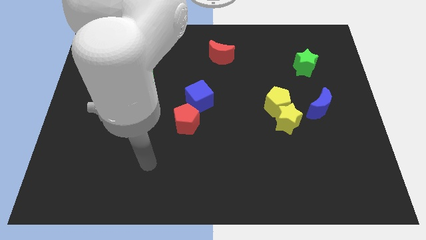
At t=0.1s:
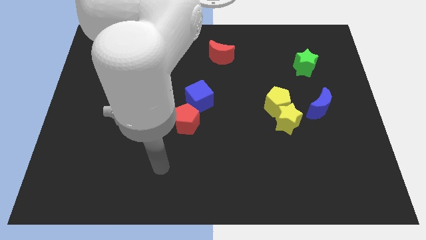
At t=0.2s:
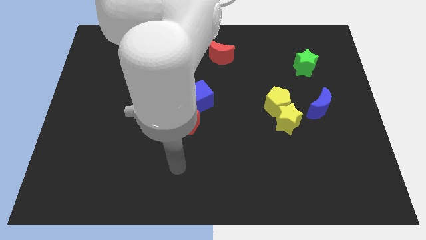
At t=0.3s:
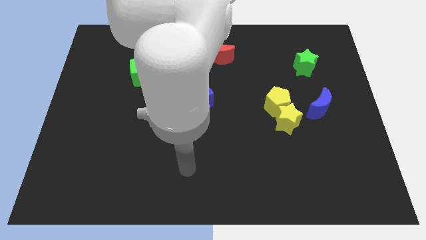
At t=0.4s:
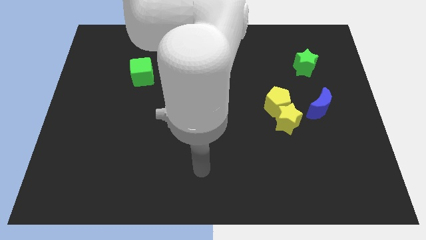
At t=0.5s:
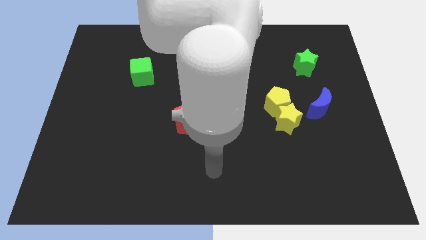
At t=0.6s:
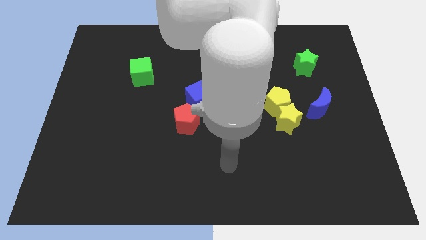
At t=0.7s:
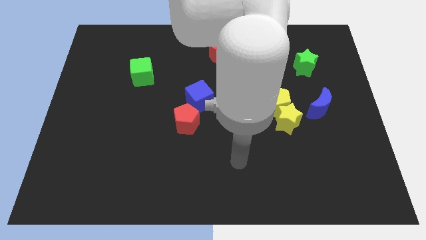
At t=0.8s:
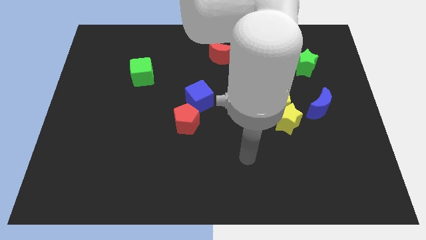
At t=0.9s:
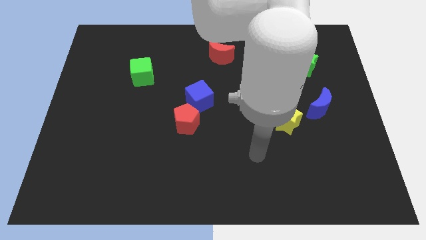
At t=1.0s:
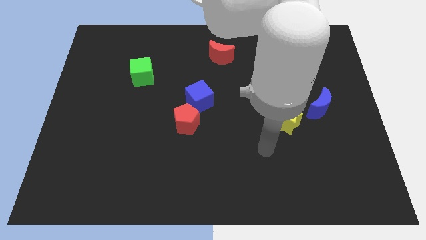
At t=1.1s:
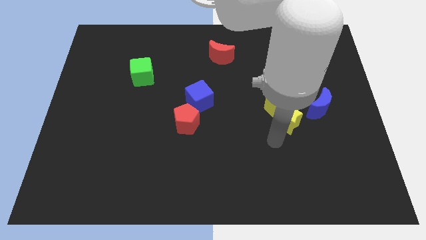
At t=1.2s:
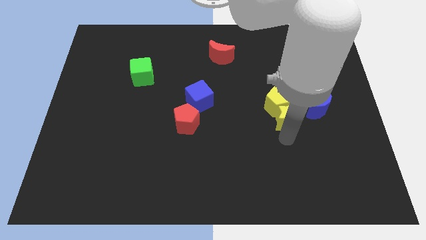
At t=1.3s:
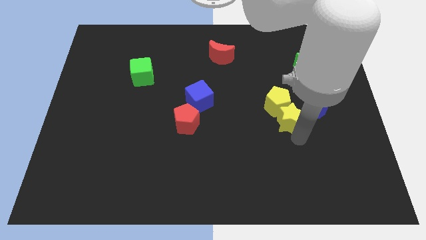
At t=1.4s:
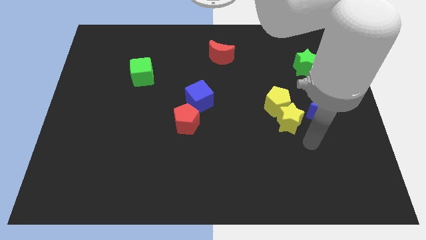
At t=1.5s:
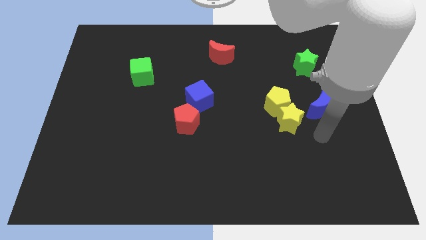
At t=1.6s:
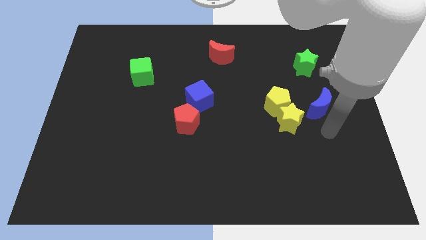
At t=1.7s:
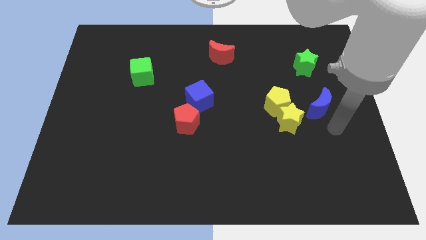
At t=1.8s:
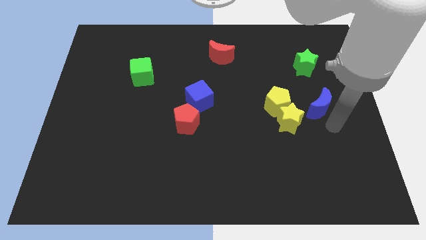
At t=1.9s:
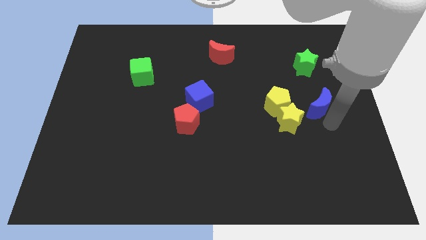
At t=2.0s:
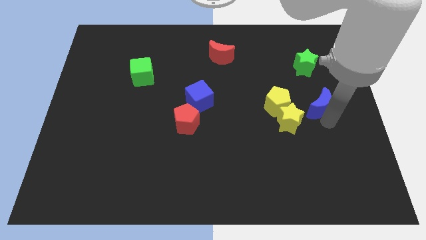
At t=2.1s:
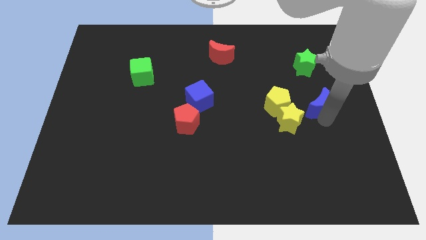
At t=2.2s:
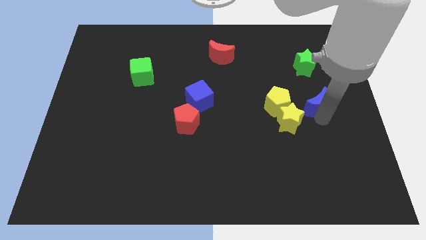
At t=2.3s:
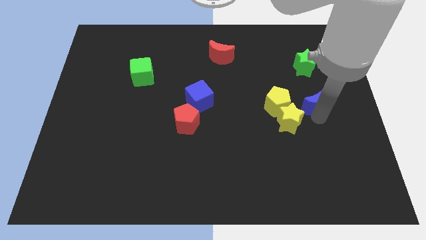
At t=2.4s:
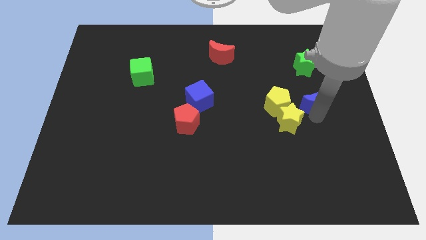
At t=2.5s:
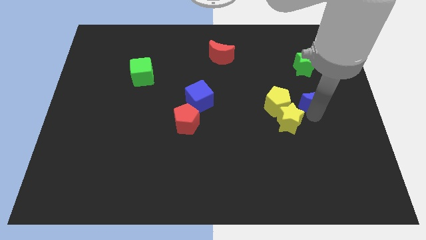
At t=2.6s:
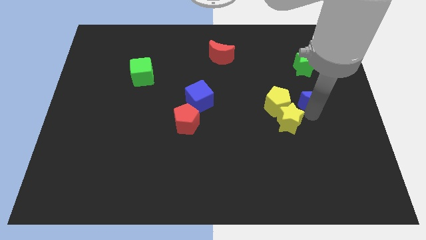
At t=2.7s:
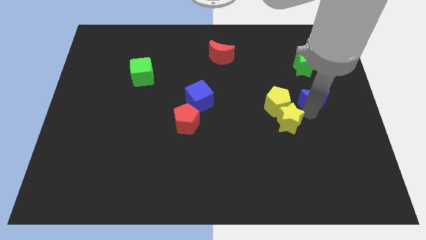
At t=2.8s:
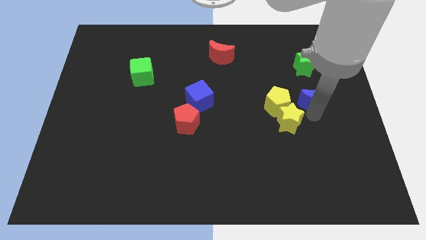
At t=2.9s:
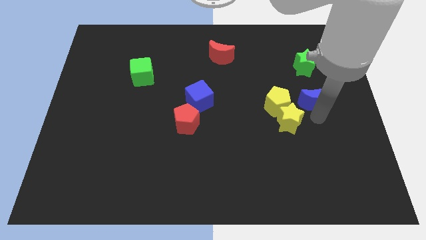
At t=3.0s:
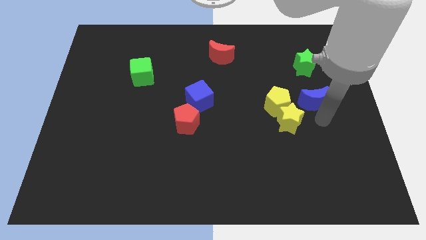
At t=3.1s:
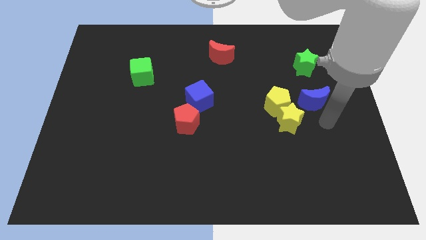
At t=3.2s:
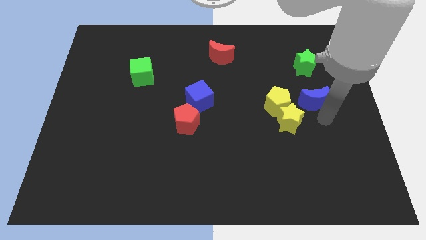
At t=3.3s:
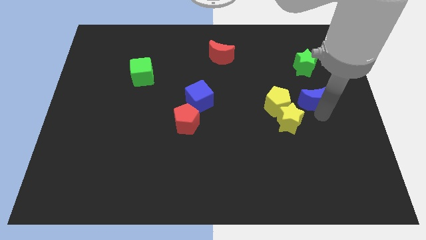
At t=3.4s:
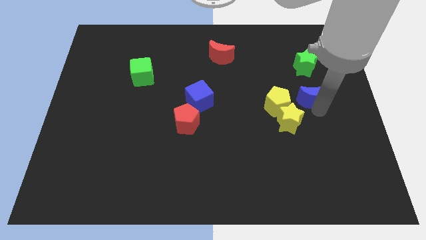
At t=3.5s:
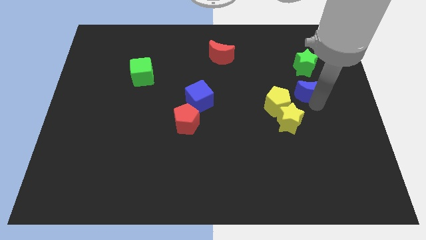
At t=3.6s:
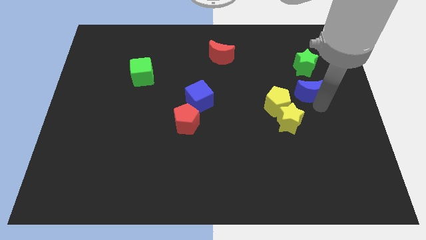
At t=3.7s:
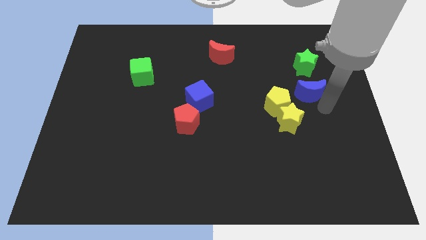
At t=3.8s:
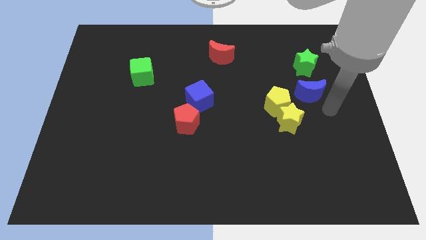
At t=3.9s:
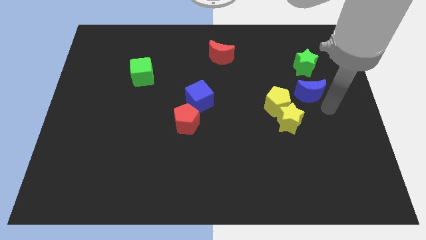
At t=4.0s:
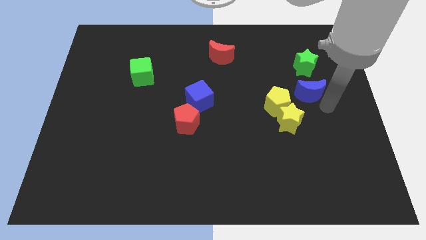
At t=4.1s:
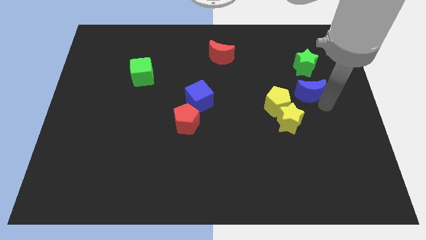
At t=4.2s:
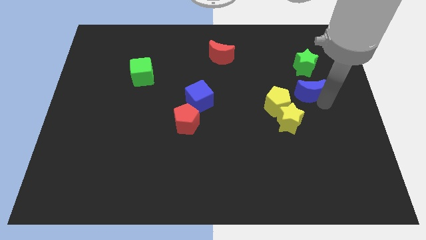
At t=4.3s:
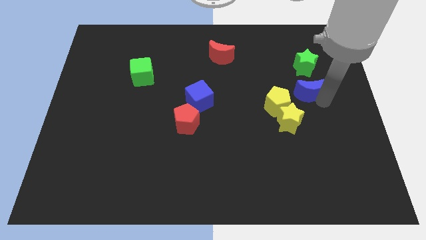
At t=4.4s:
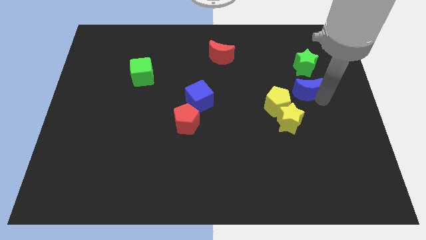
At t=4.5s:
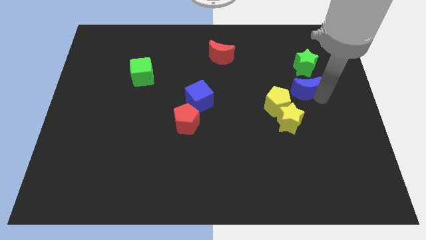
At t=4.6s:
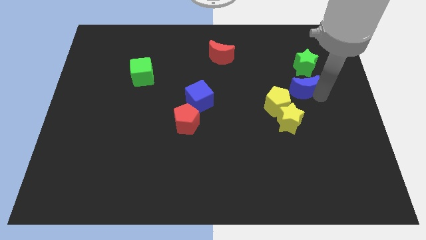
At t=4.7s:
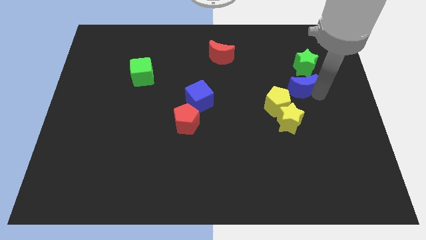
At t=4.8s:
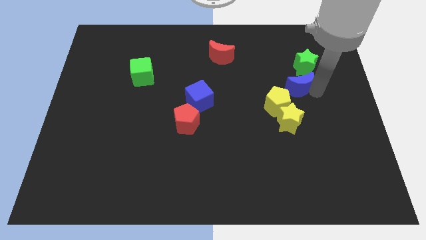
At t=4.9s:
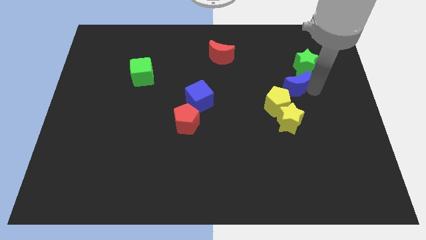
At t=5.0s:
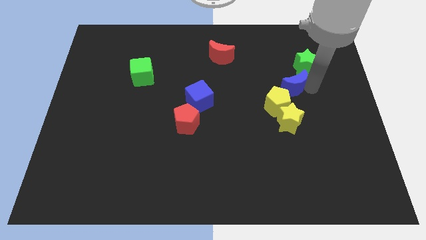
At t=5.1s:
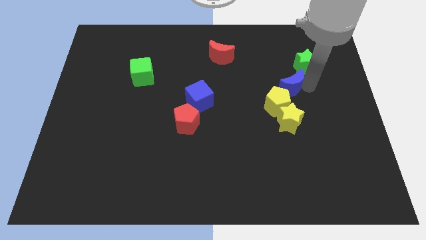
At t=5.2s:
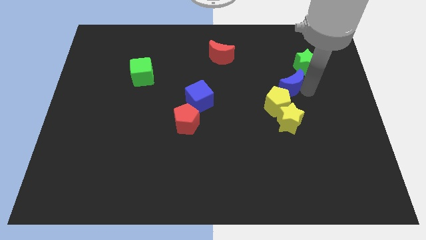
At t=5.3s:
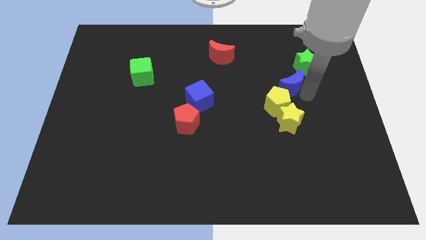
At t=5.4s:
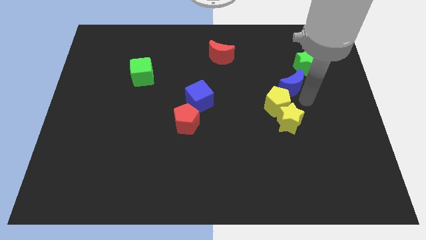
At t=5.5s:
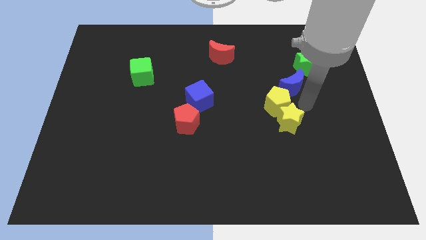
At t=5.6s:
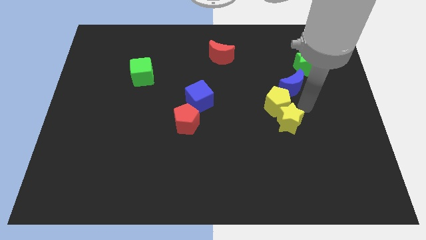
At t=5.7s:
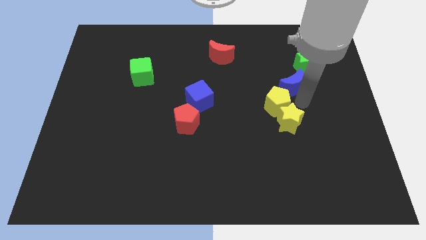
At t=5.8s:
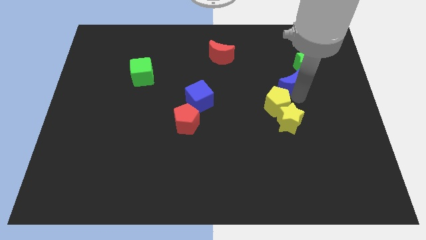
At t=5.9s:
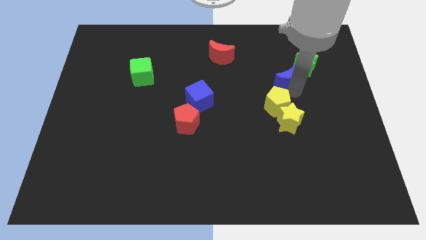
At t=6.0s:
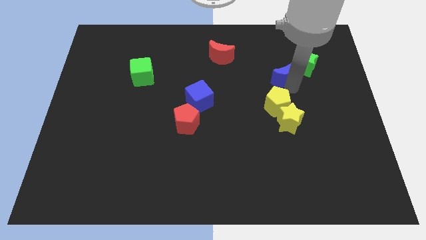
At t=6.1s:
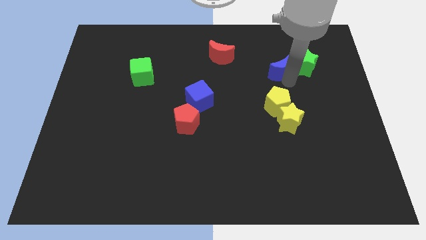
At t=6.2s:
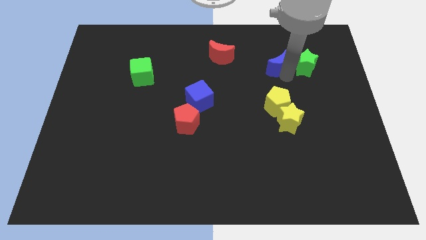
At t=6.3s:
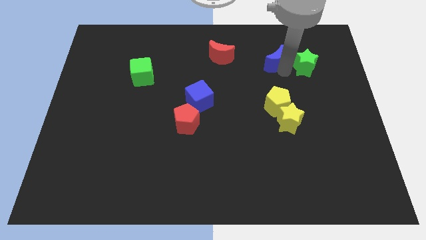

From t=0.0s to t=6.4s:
slide the blue moon to the right side of the red moon

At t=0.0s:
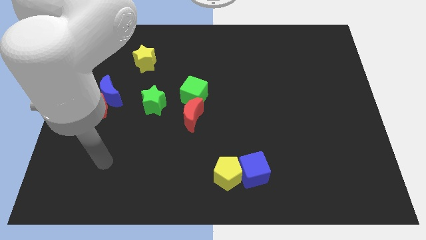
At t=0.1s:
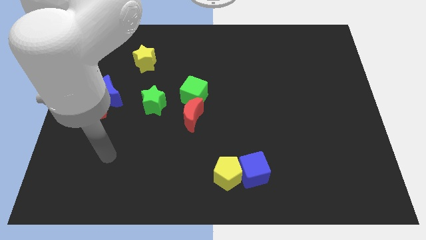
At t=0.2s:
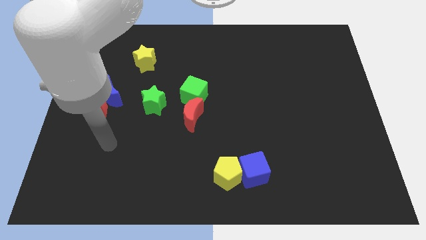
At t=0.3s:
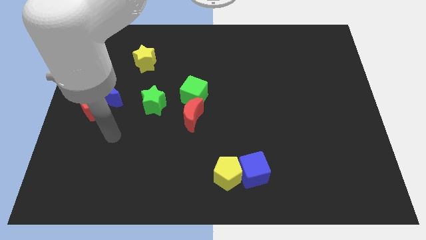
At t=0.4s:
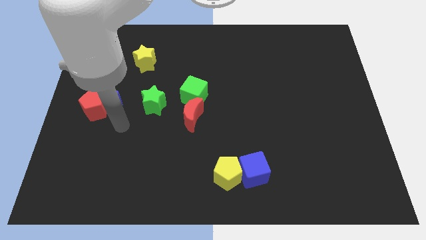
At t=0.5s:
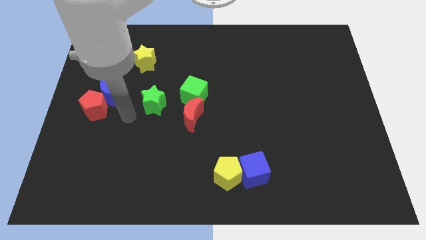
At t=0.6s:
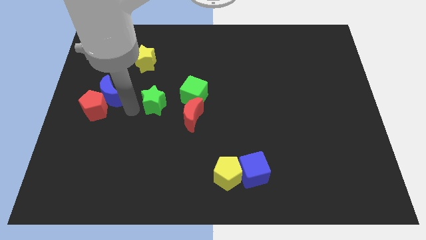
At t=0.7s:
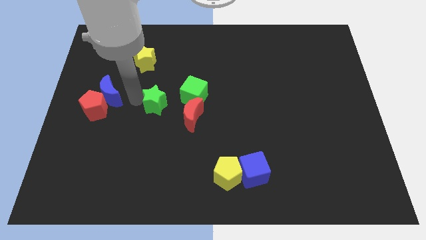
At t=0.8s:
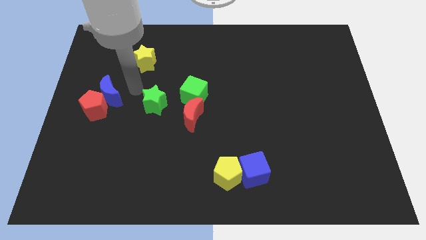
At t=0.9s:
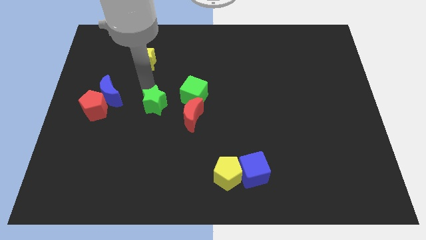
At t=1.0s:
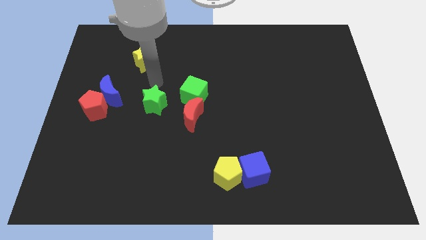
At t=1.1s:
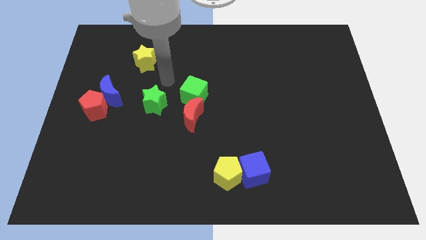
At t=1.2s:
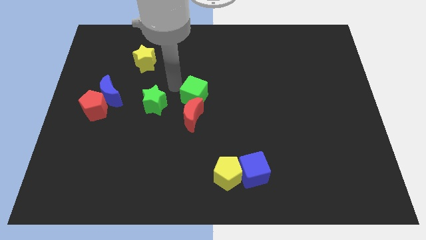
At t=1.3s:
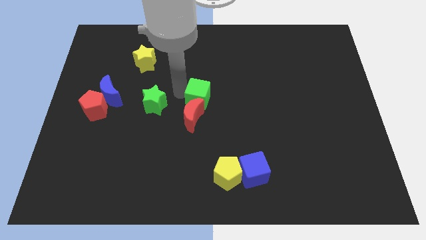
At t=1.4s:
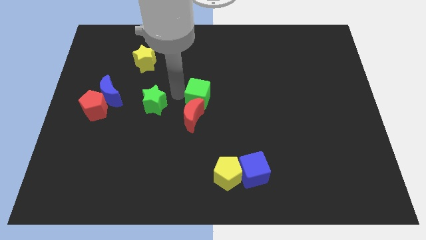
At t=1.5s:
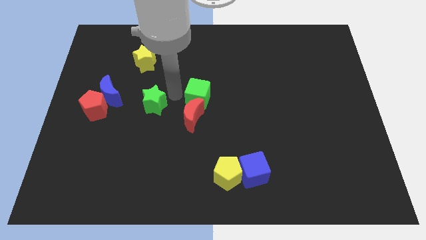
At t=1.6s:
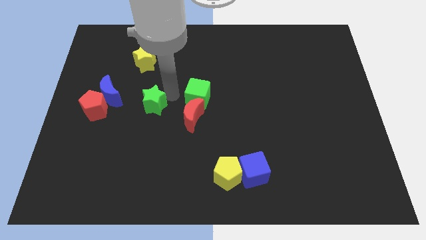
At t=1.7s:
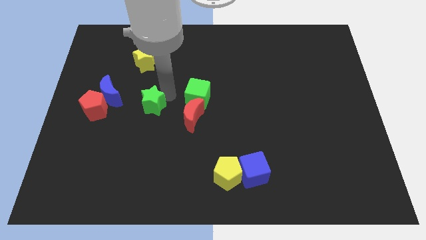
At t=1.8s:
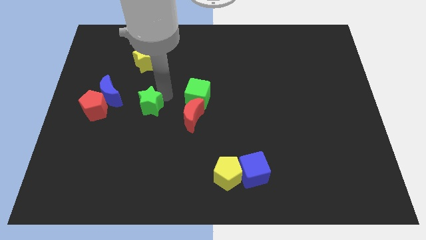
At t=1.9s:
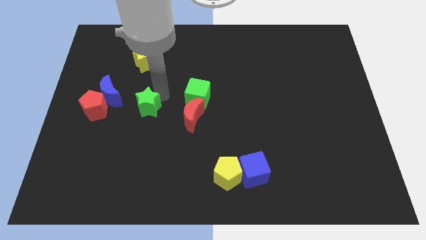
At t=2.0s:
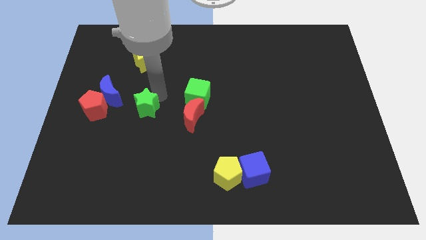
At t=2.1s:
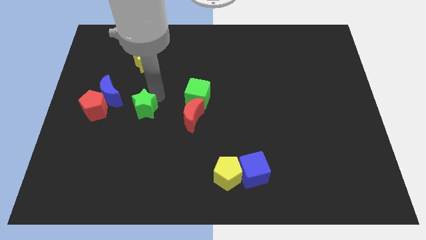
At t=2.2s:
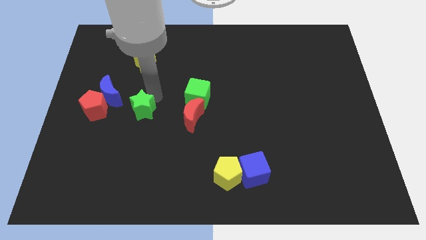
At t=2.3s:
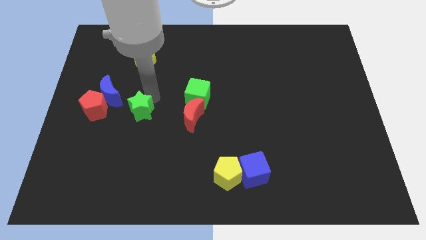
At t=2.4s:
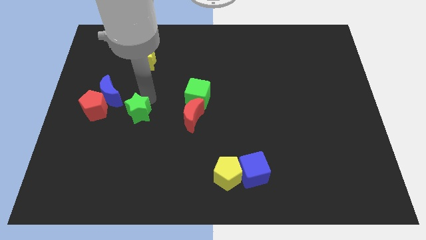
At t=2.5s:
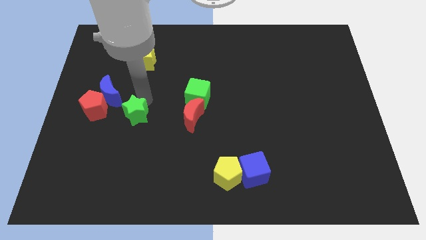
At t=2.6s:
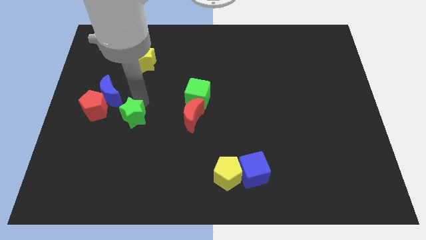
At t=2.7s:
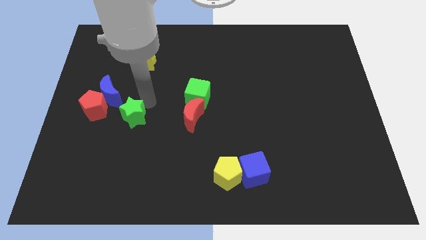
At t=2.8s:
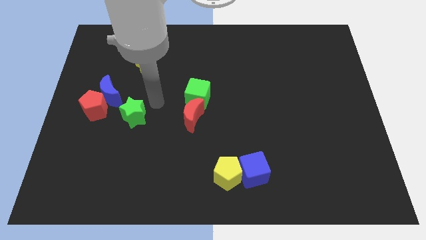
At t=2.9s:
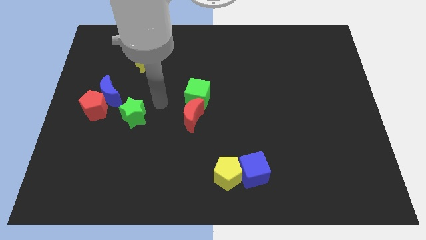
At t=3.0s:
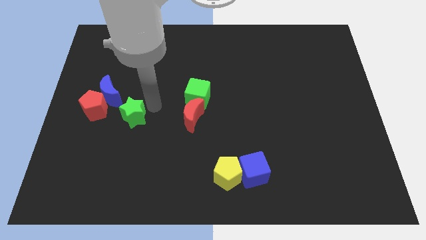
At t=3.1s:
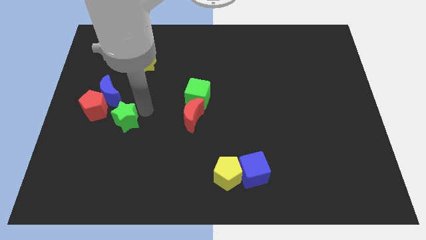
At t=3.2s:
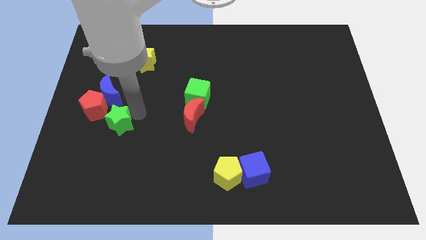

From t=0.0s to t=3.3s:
push the green star to the bottom of the blue moon
